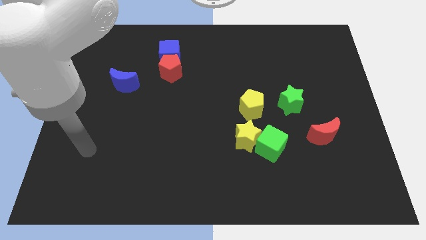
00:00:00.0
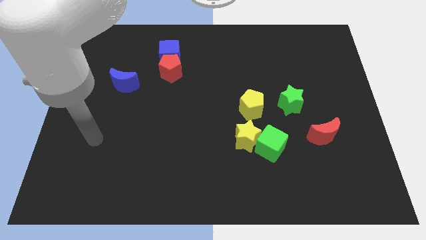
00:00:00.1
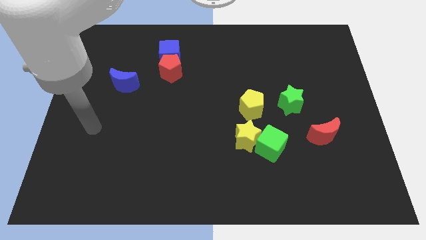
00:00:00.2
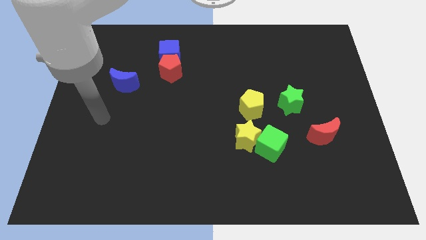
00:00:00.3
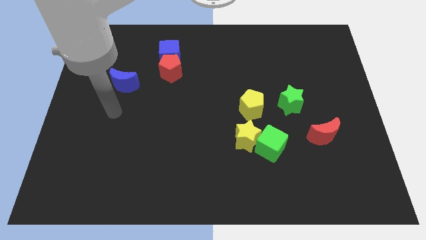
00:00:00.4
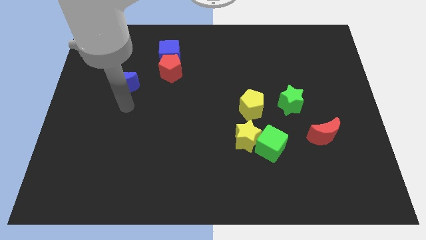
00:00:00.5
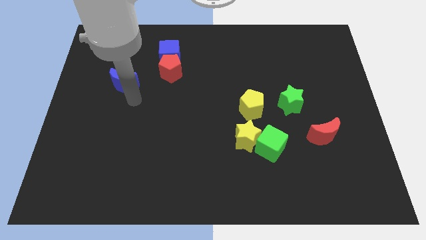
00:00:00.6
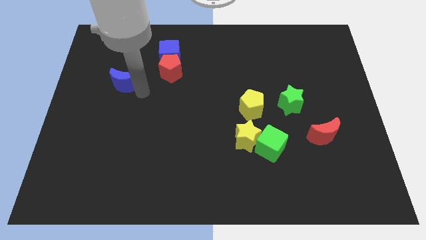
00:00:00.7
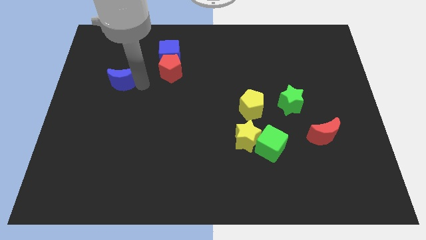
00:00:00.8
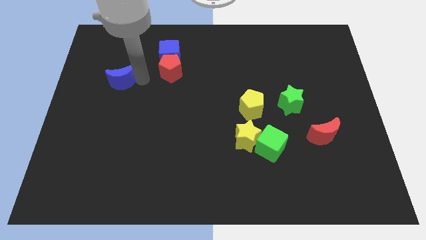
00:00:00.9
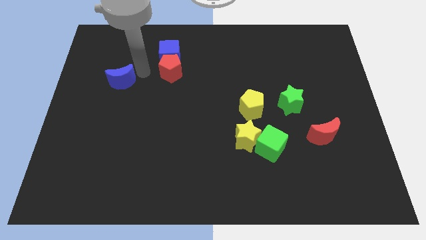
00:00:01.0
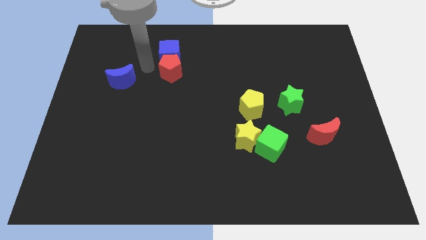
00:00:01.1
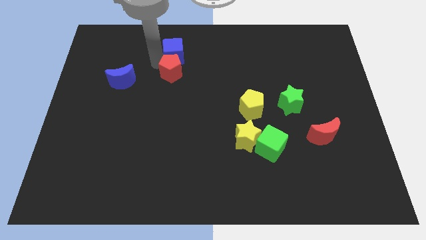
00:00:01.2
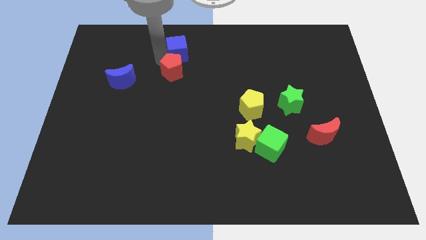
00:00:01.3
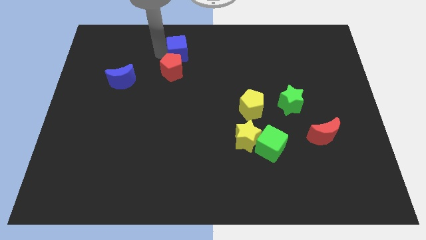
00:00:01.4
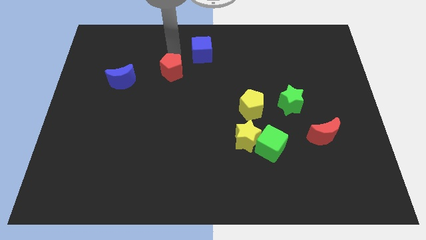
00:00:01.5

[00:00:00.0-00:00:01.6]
separate the red pentagon from the blue cube

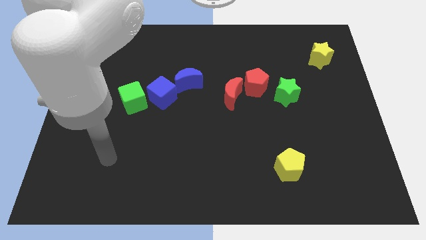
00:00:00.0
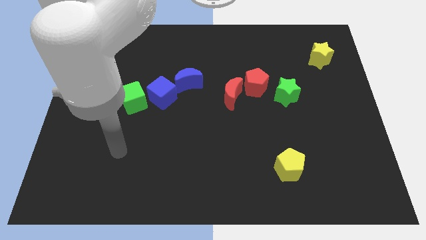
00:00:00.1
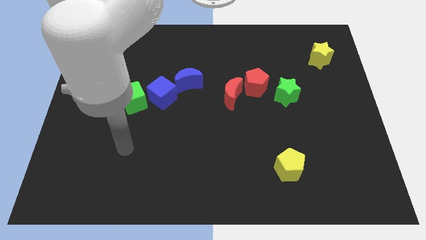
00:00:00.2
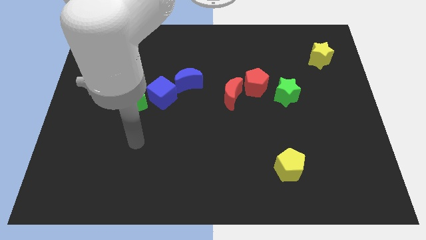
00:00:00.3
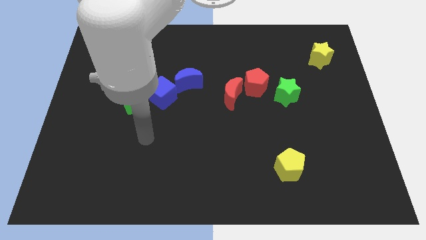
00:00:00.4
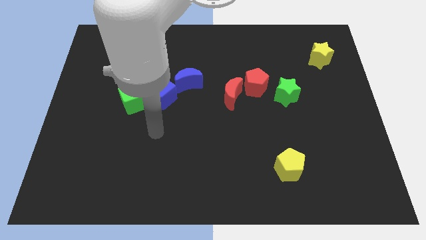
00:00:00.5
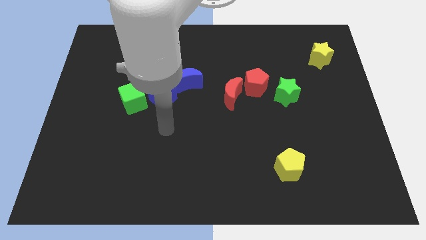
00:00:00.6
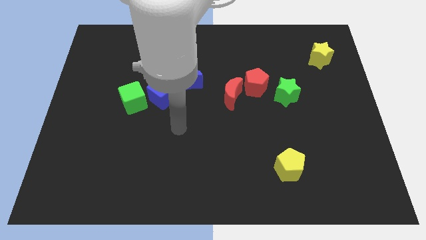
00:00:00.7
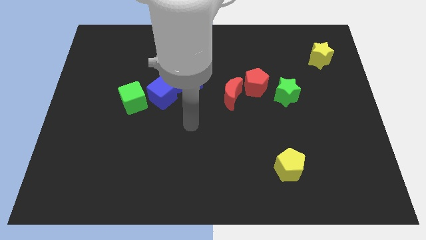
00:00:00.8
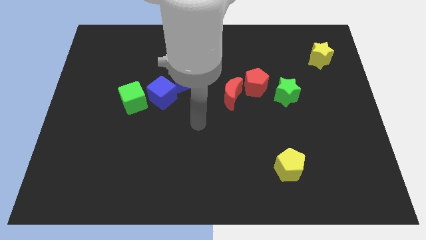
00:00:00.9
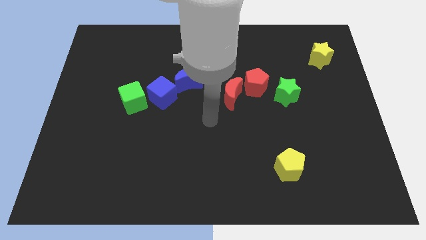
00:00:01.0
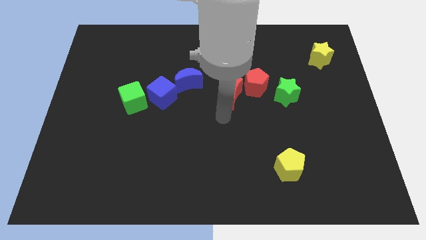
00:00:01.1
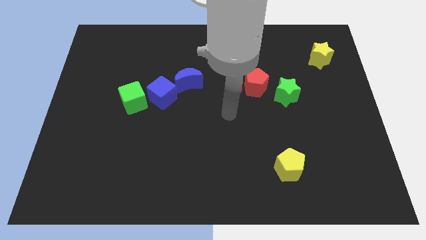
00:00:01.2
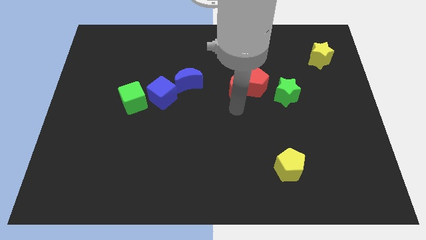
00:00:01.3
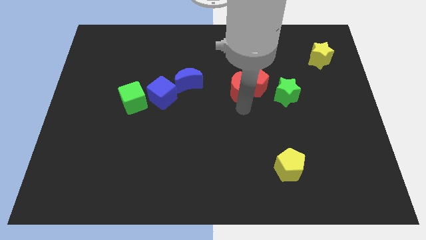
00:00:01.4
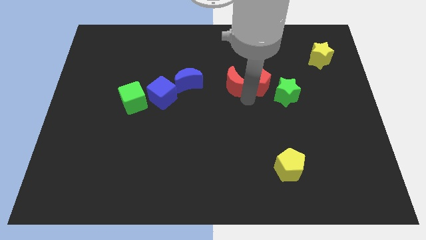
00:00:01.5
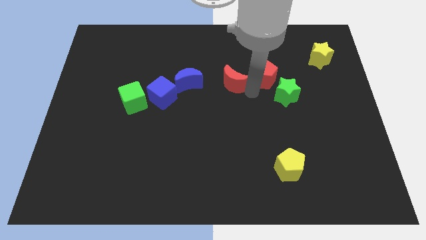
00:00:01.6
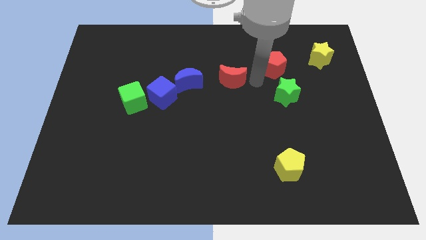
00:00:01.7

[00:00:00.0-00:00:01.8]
pull the red moon apart from the red pentagon

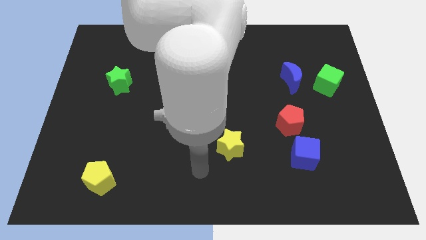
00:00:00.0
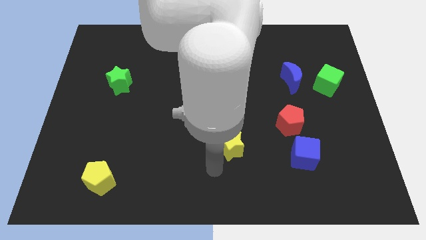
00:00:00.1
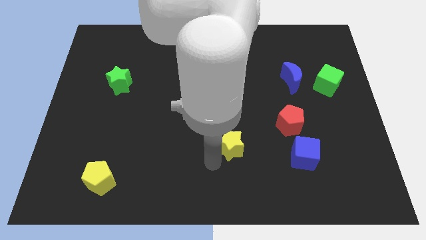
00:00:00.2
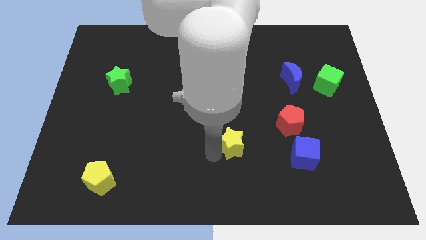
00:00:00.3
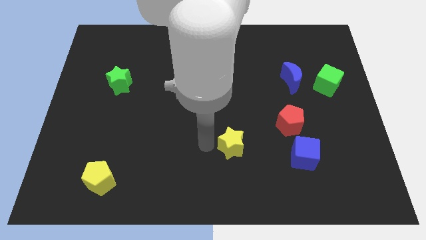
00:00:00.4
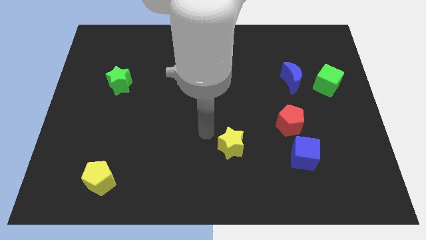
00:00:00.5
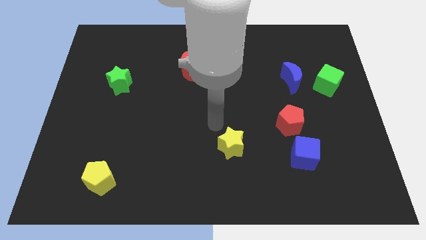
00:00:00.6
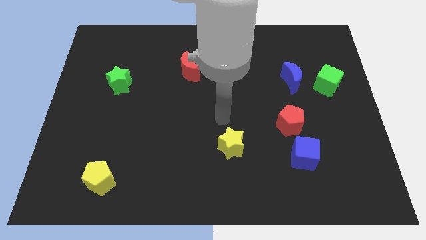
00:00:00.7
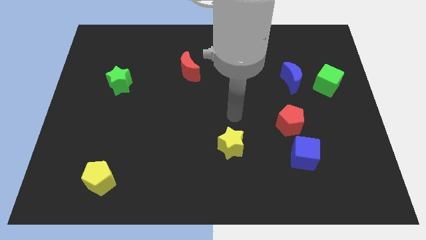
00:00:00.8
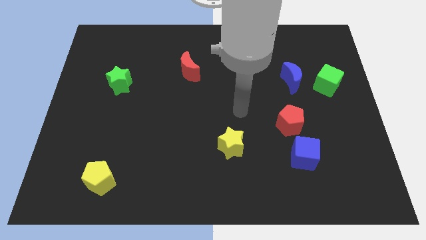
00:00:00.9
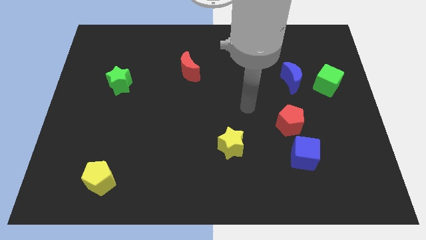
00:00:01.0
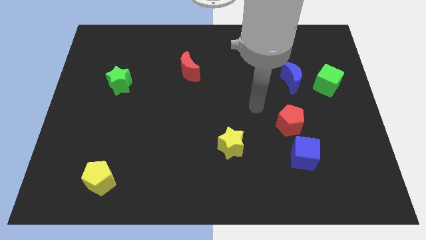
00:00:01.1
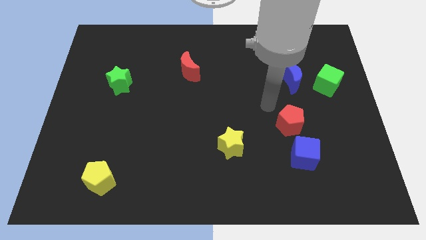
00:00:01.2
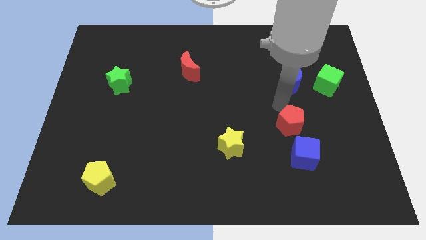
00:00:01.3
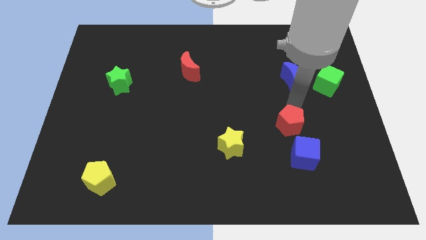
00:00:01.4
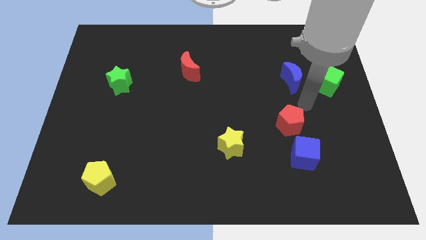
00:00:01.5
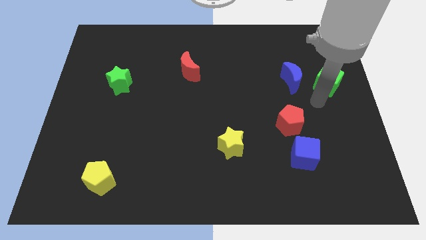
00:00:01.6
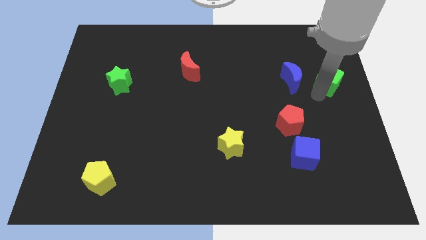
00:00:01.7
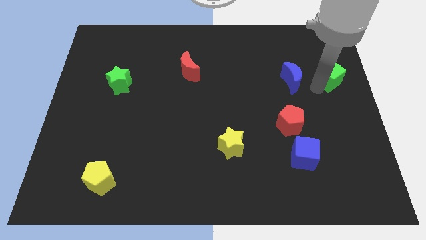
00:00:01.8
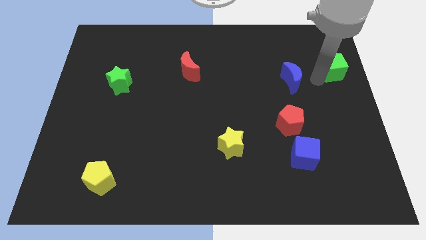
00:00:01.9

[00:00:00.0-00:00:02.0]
move the blue moon away from the green cube

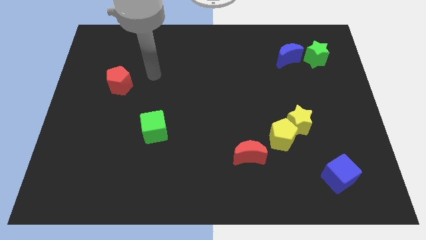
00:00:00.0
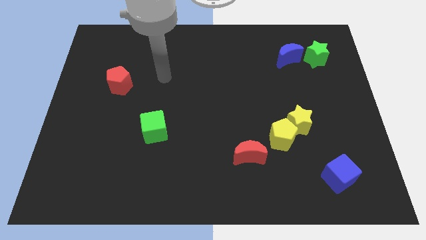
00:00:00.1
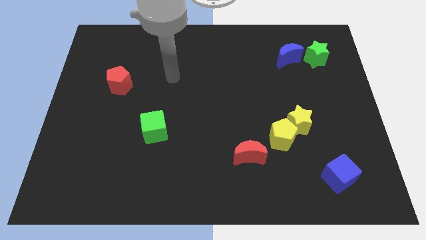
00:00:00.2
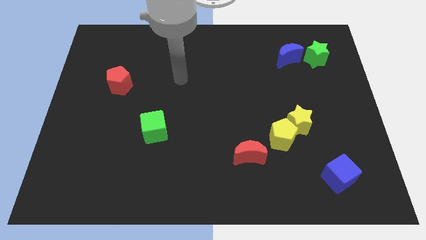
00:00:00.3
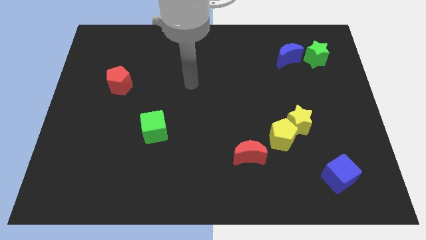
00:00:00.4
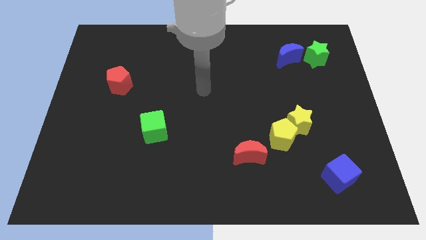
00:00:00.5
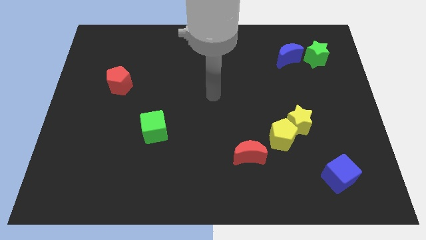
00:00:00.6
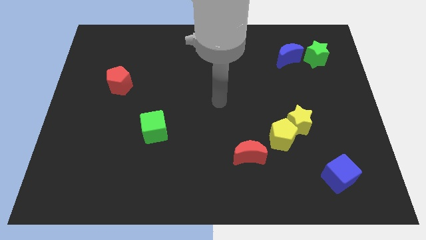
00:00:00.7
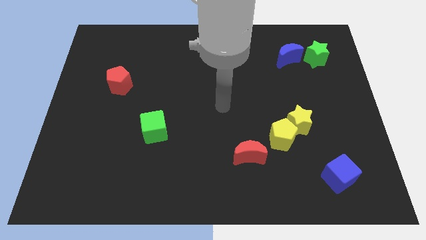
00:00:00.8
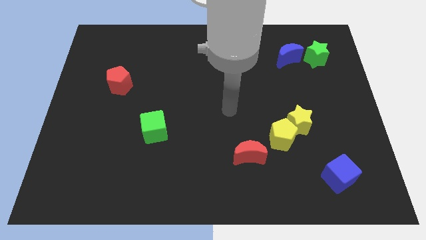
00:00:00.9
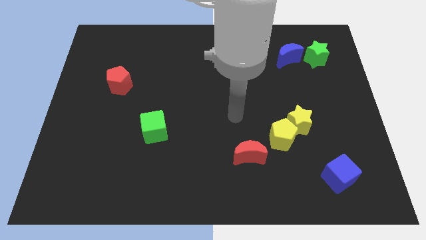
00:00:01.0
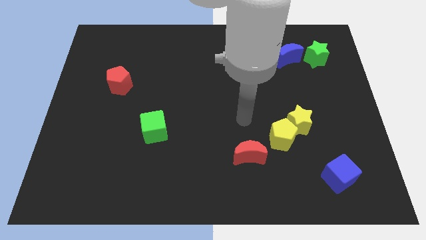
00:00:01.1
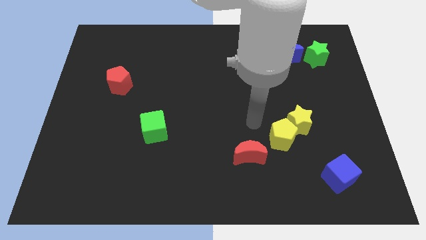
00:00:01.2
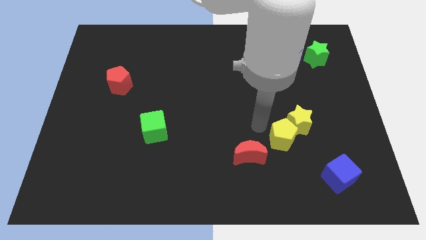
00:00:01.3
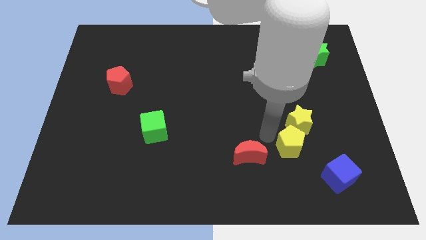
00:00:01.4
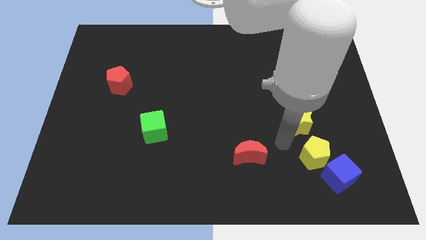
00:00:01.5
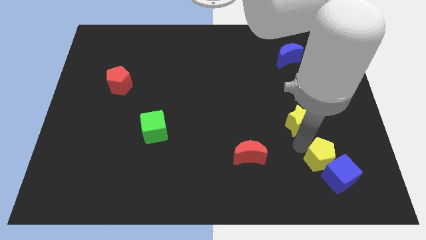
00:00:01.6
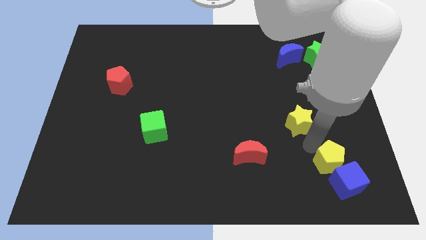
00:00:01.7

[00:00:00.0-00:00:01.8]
pull the yellow star apart from the yellow pentagon

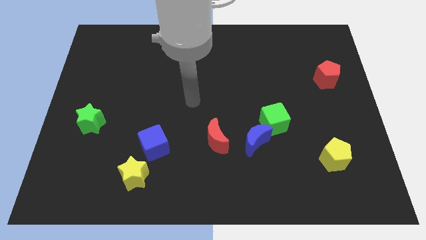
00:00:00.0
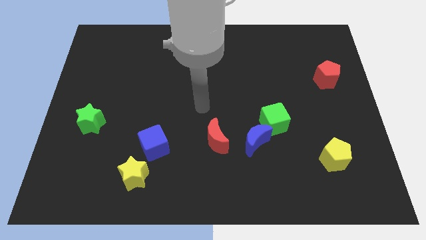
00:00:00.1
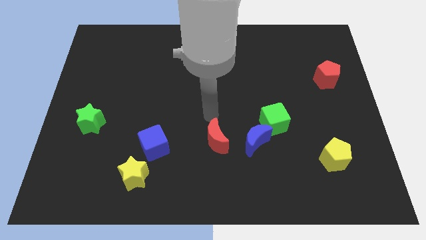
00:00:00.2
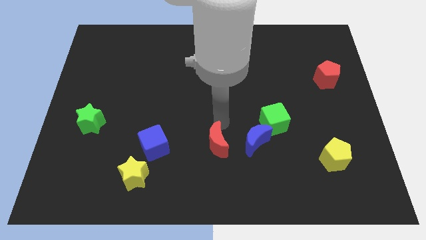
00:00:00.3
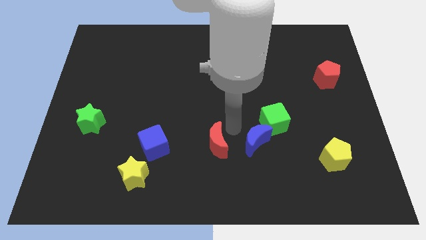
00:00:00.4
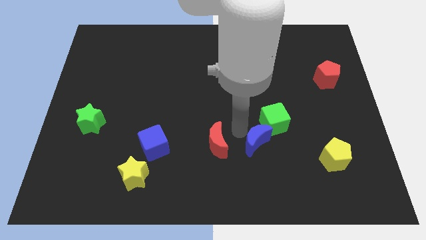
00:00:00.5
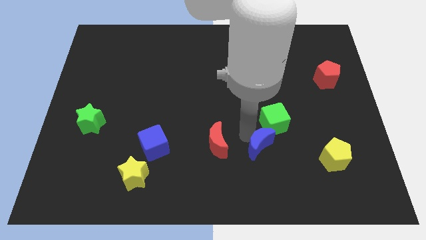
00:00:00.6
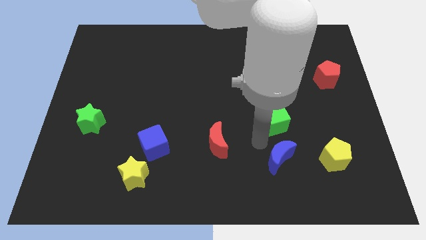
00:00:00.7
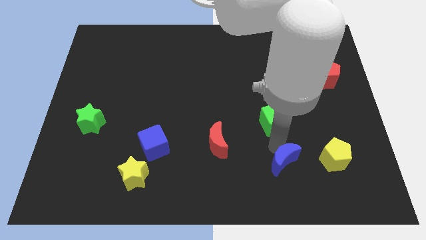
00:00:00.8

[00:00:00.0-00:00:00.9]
separate the green cube from the blue moon

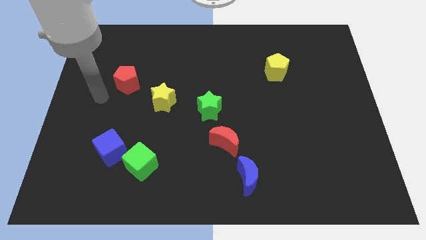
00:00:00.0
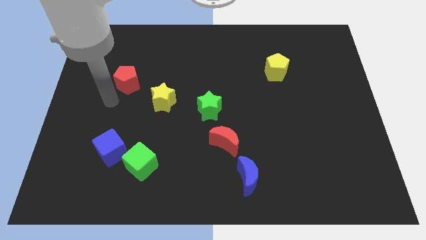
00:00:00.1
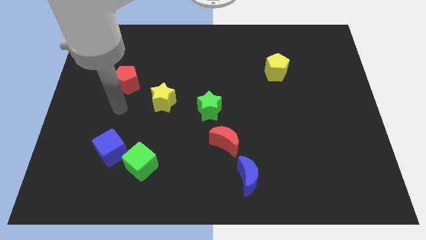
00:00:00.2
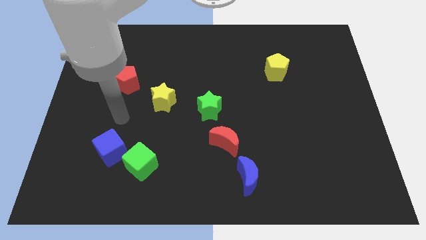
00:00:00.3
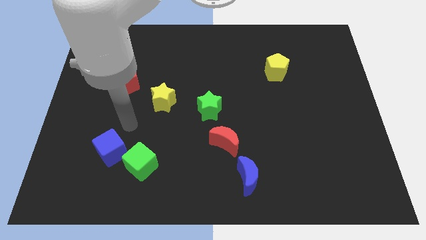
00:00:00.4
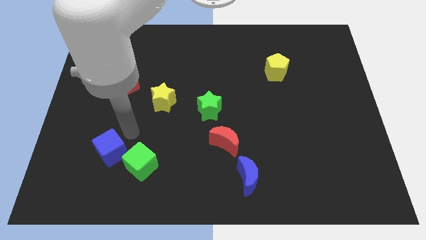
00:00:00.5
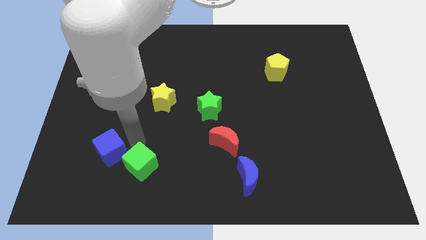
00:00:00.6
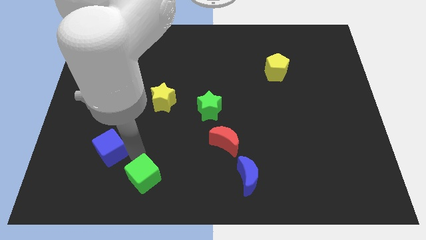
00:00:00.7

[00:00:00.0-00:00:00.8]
pull the blue cube apart from the green cube

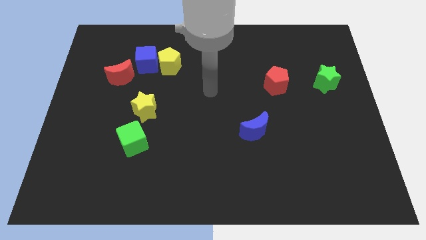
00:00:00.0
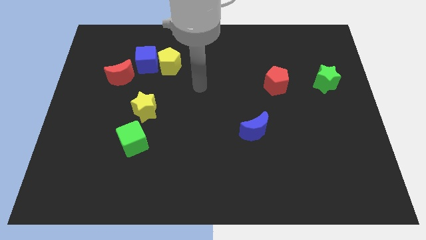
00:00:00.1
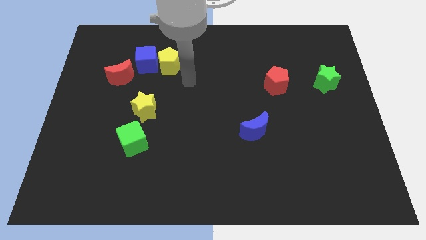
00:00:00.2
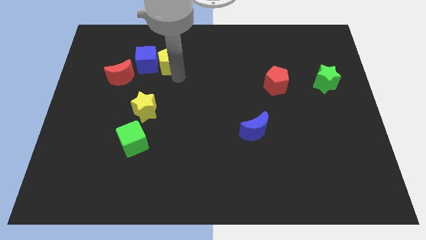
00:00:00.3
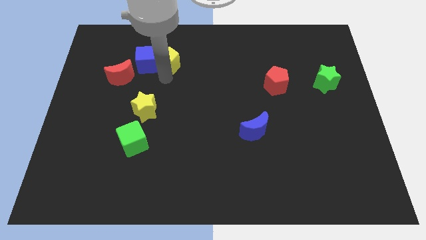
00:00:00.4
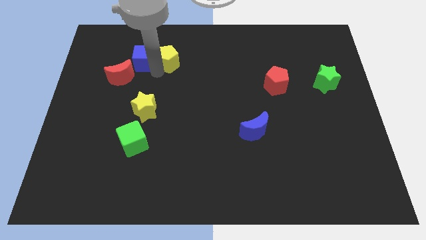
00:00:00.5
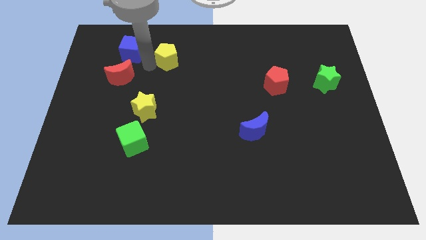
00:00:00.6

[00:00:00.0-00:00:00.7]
pull the yellow pentagon apart from the blue cube
